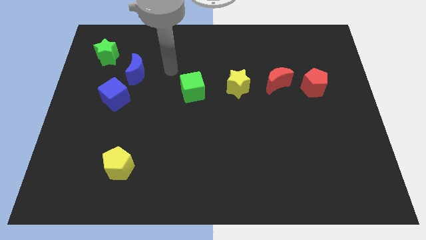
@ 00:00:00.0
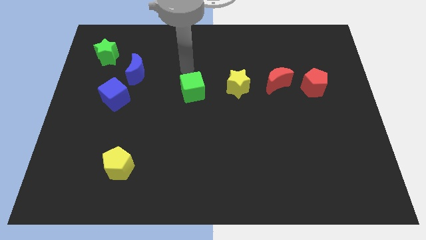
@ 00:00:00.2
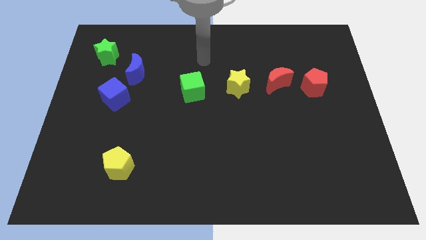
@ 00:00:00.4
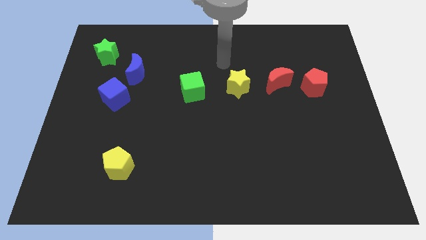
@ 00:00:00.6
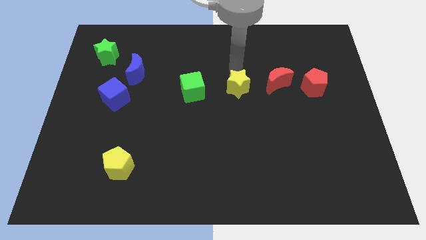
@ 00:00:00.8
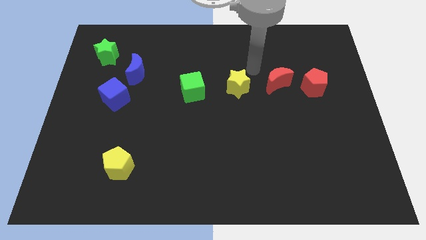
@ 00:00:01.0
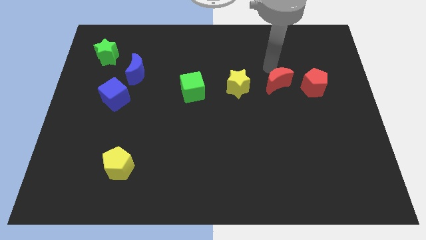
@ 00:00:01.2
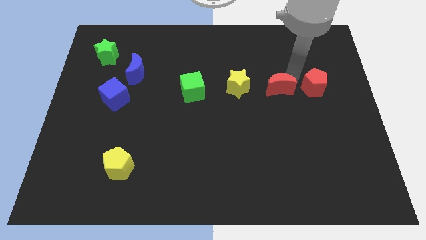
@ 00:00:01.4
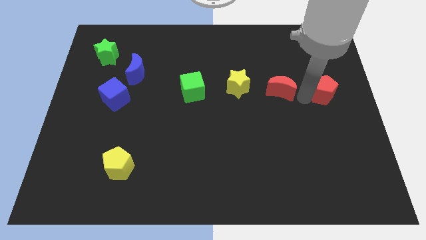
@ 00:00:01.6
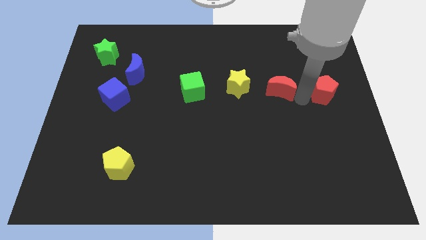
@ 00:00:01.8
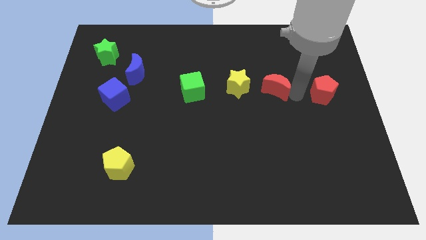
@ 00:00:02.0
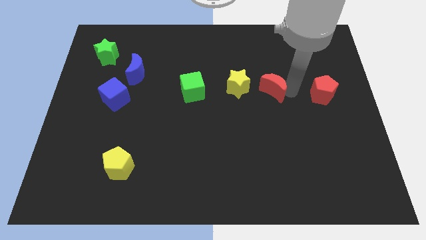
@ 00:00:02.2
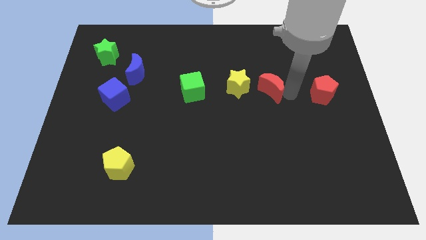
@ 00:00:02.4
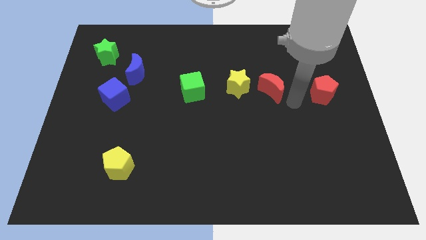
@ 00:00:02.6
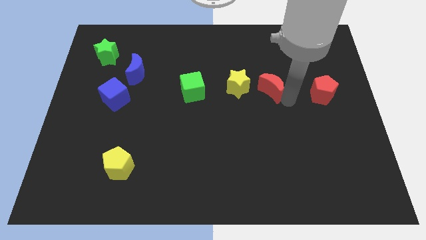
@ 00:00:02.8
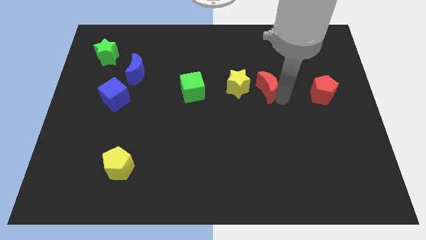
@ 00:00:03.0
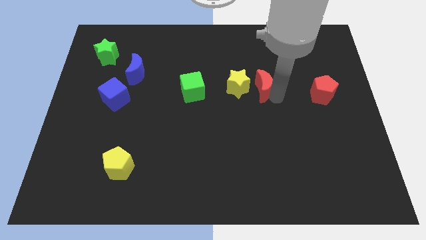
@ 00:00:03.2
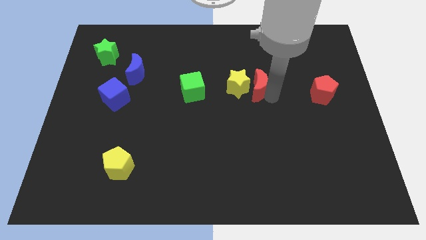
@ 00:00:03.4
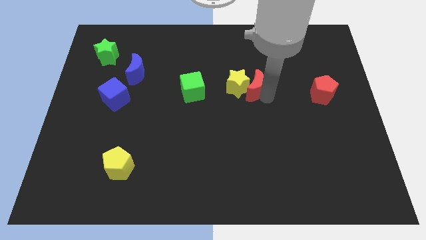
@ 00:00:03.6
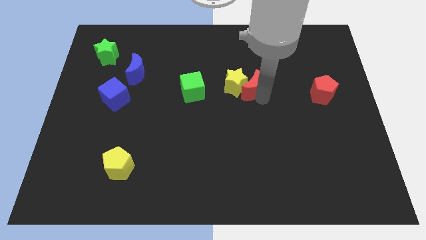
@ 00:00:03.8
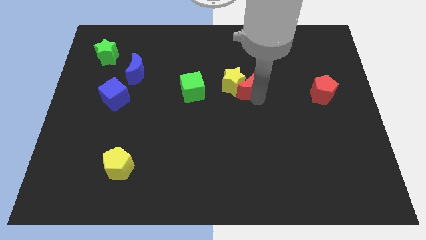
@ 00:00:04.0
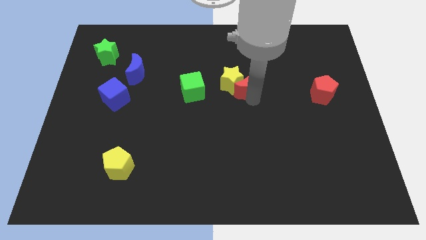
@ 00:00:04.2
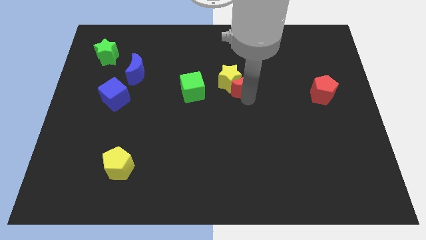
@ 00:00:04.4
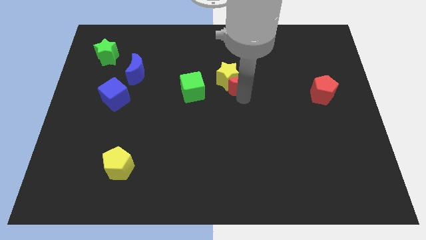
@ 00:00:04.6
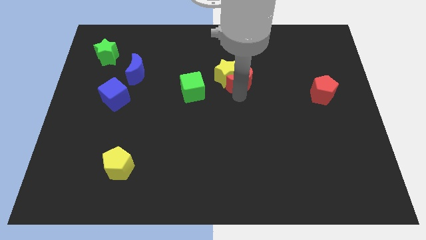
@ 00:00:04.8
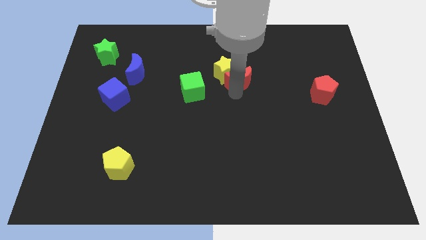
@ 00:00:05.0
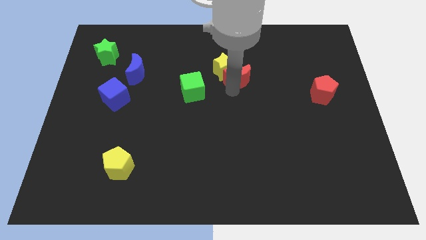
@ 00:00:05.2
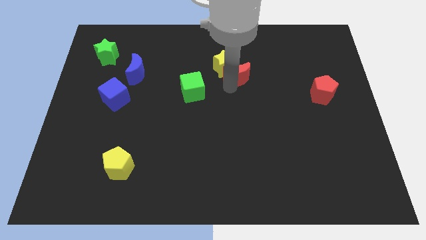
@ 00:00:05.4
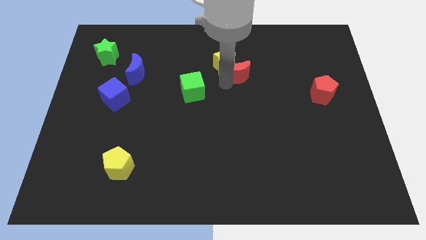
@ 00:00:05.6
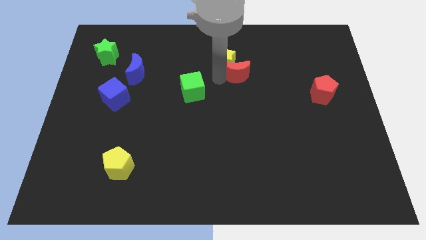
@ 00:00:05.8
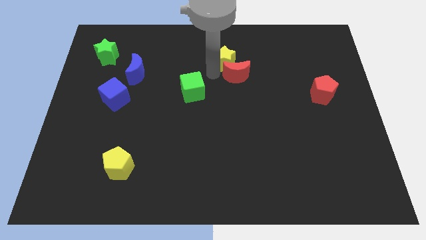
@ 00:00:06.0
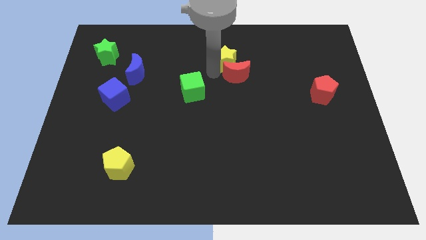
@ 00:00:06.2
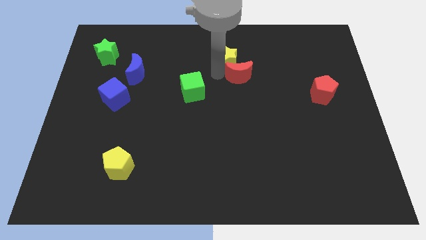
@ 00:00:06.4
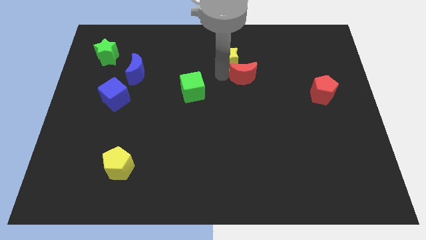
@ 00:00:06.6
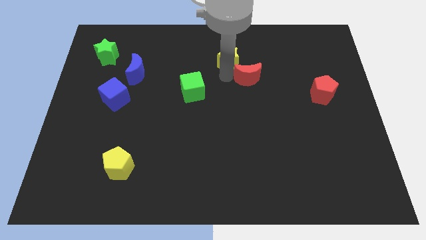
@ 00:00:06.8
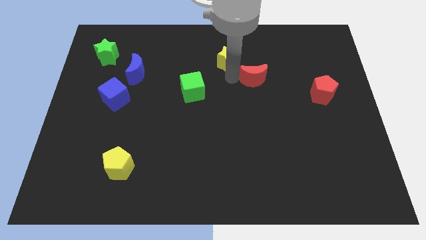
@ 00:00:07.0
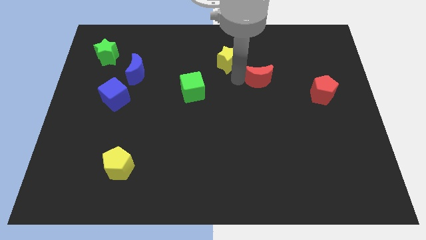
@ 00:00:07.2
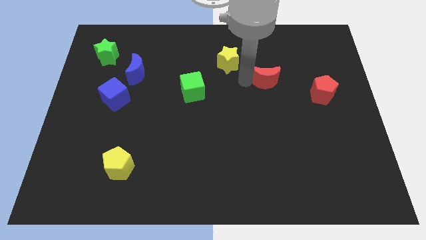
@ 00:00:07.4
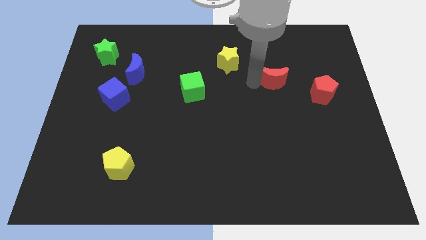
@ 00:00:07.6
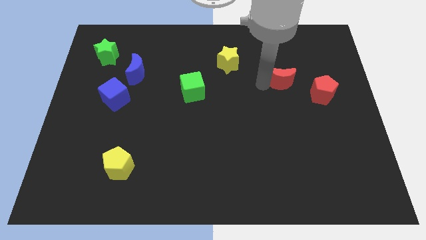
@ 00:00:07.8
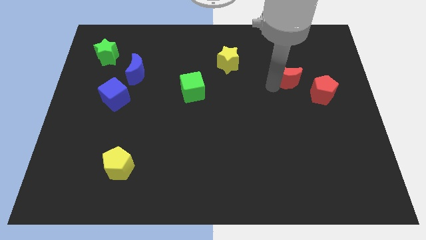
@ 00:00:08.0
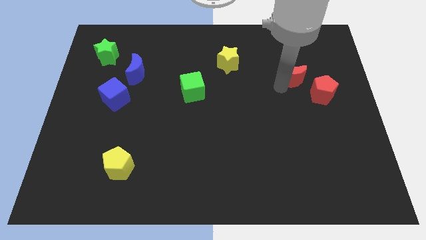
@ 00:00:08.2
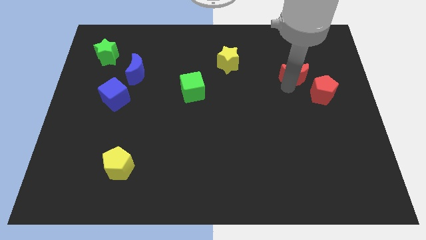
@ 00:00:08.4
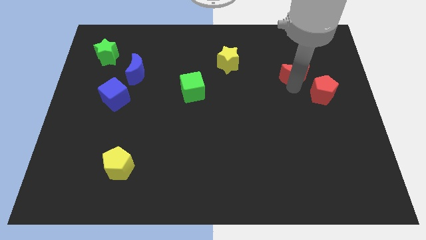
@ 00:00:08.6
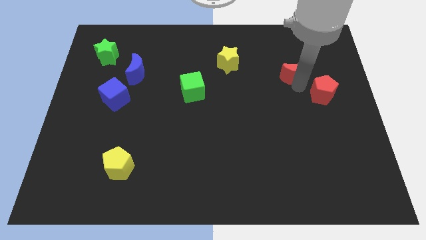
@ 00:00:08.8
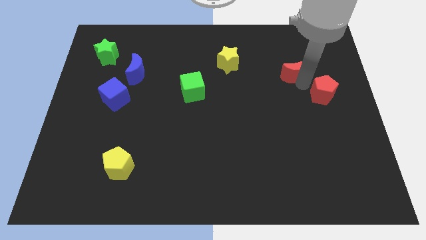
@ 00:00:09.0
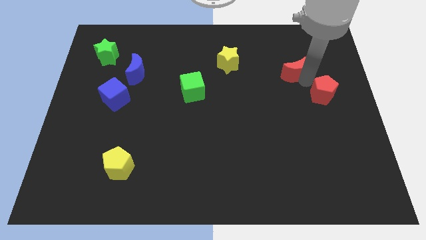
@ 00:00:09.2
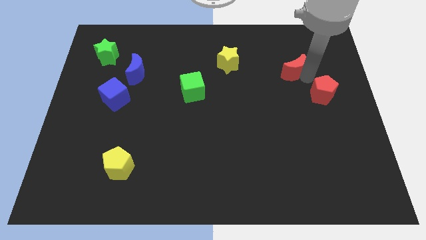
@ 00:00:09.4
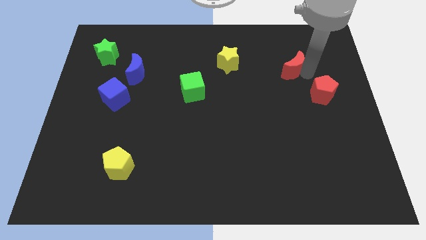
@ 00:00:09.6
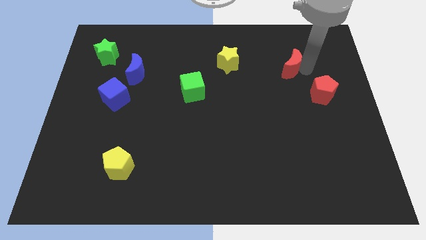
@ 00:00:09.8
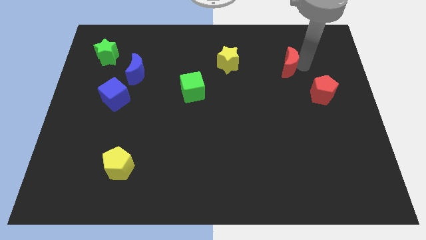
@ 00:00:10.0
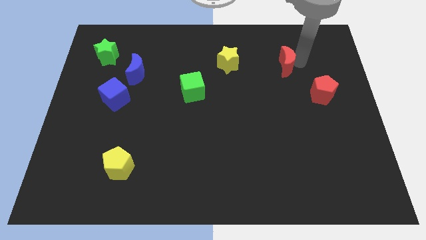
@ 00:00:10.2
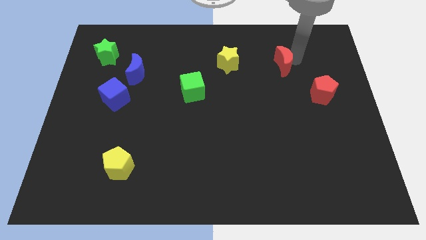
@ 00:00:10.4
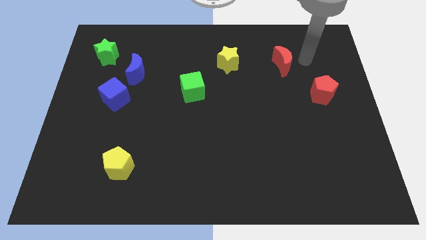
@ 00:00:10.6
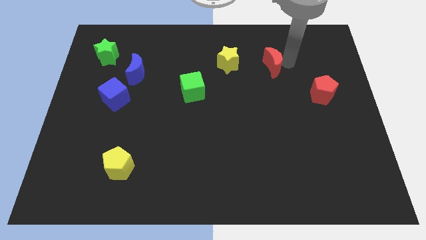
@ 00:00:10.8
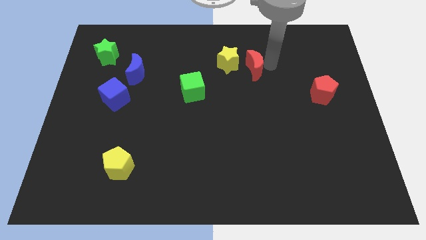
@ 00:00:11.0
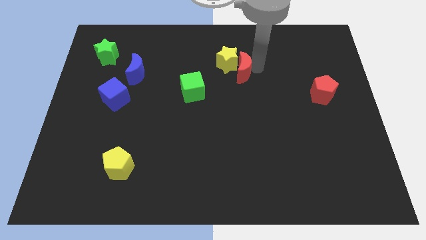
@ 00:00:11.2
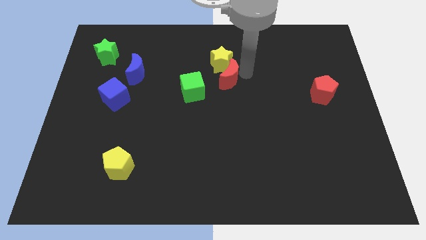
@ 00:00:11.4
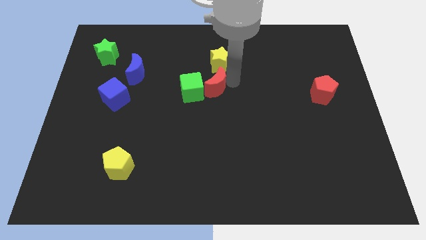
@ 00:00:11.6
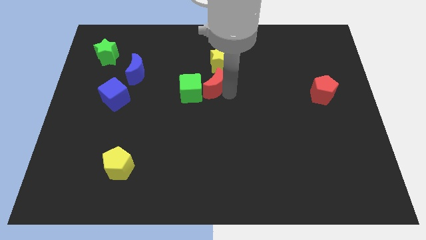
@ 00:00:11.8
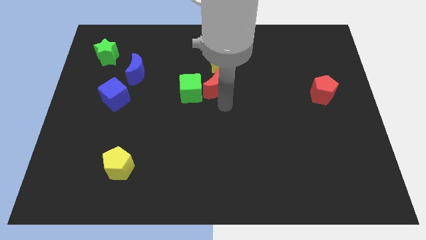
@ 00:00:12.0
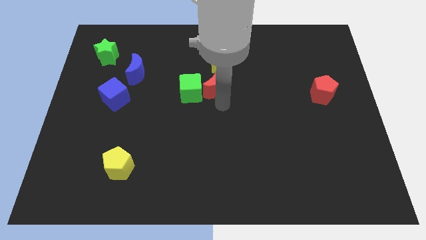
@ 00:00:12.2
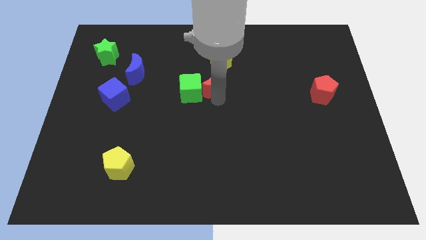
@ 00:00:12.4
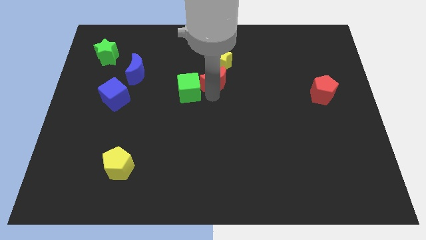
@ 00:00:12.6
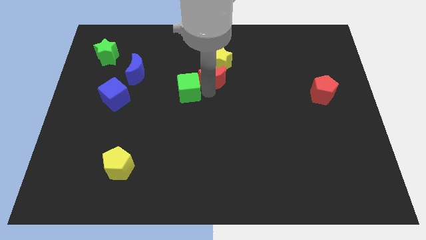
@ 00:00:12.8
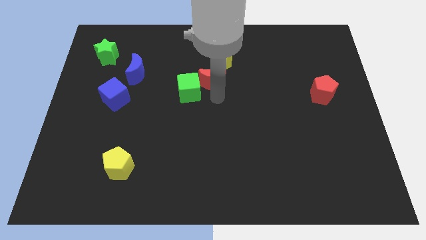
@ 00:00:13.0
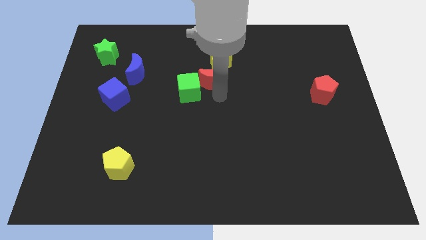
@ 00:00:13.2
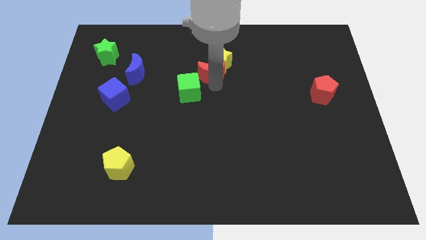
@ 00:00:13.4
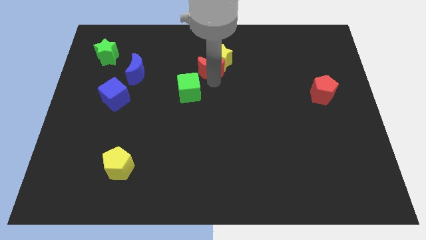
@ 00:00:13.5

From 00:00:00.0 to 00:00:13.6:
move the red moon to the top side of the green cube
